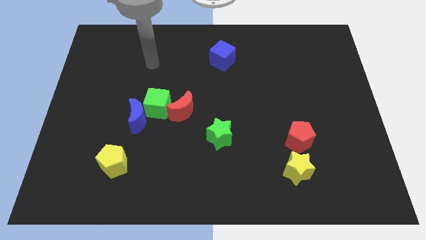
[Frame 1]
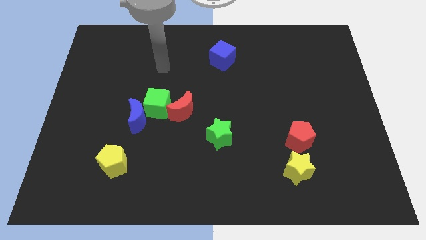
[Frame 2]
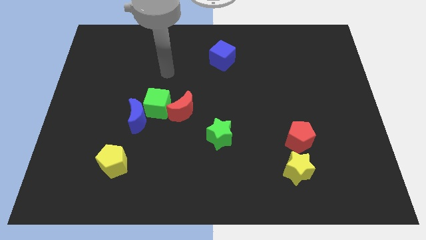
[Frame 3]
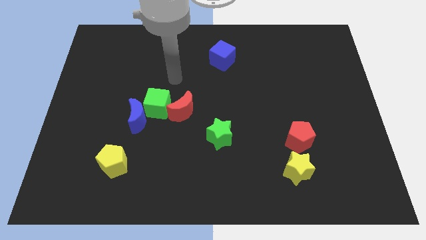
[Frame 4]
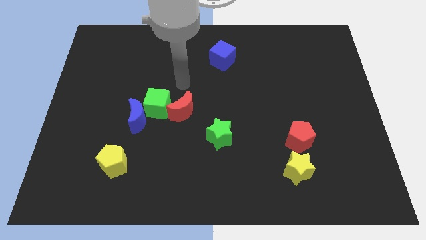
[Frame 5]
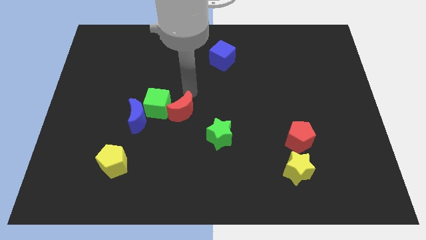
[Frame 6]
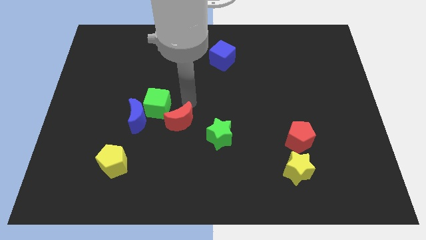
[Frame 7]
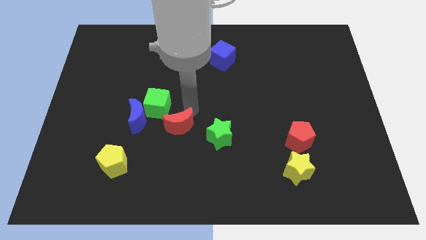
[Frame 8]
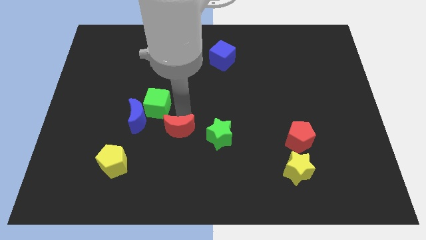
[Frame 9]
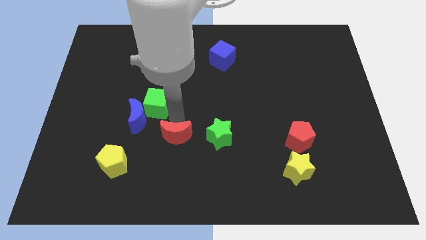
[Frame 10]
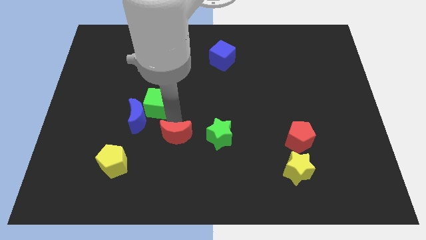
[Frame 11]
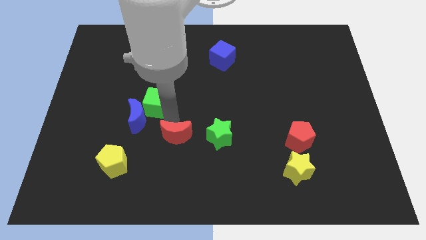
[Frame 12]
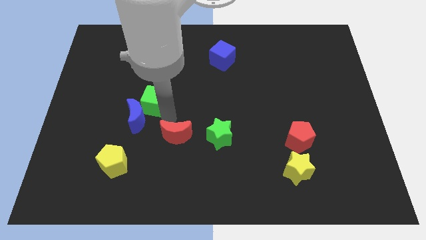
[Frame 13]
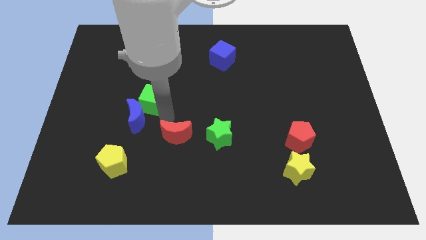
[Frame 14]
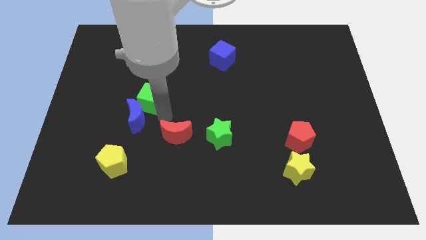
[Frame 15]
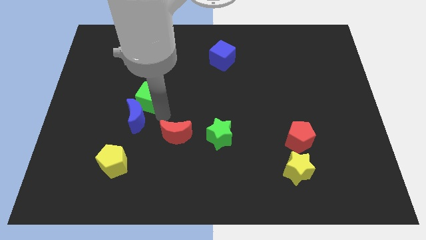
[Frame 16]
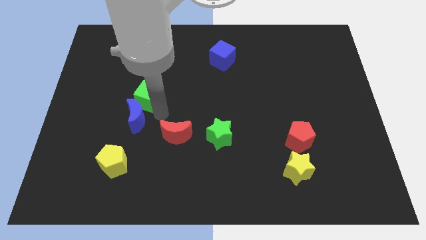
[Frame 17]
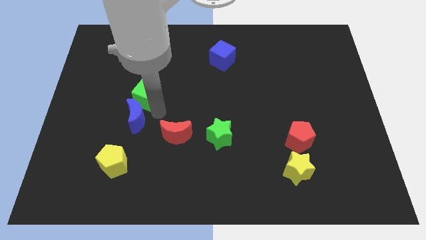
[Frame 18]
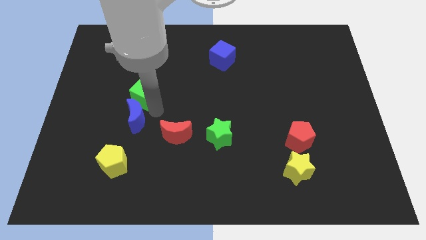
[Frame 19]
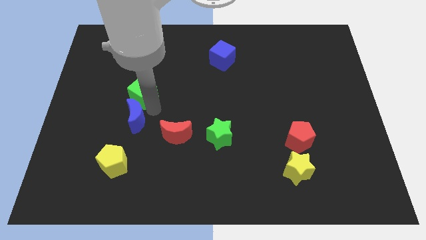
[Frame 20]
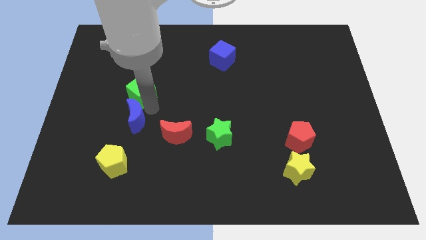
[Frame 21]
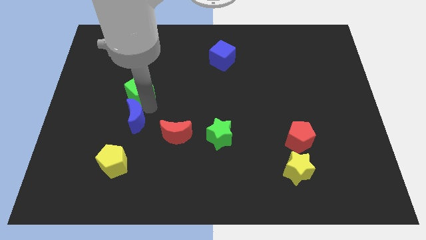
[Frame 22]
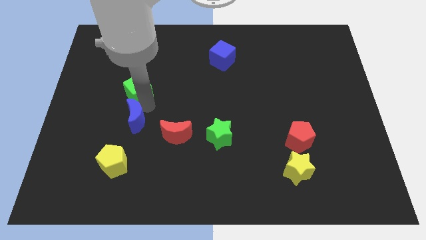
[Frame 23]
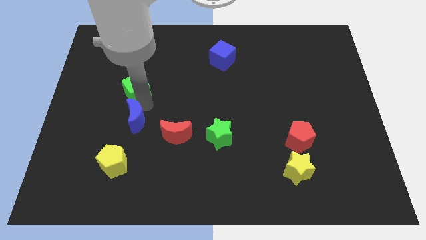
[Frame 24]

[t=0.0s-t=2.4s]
move the green cube slightly upwards and then left

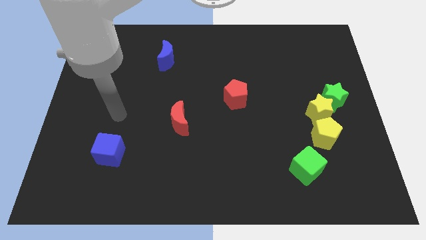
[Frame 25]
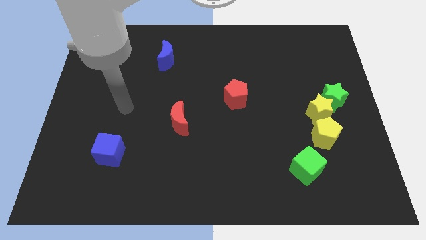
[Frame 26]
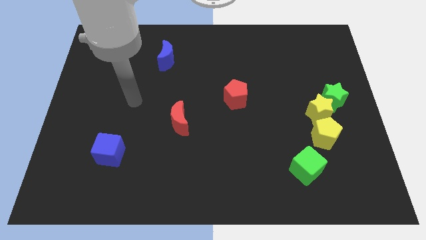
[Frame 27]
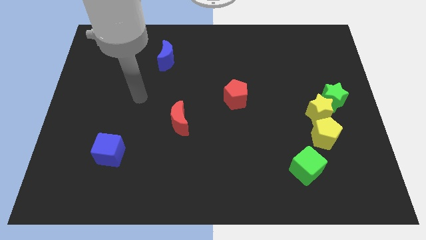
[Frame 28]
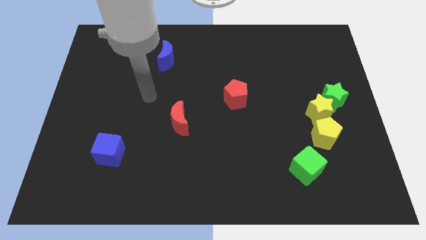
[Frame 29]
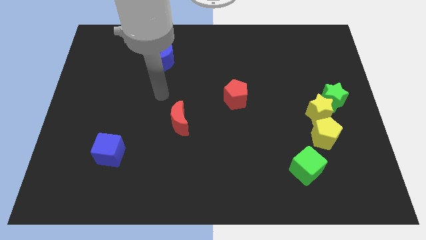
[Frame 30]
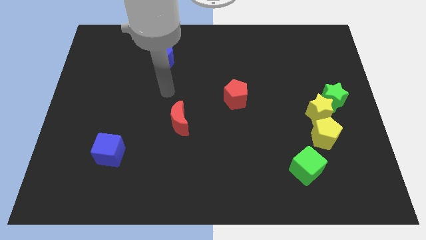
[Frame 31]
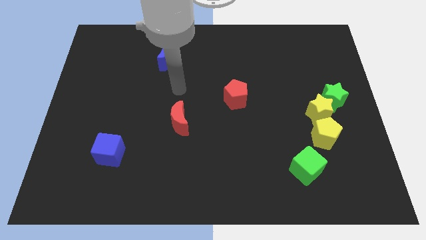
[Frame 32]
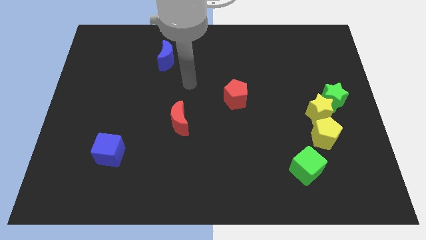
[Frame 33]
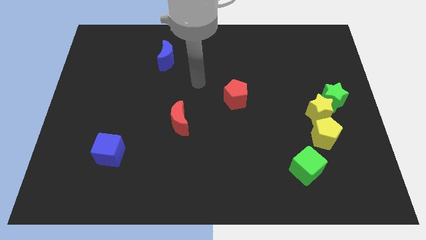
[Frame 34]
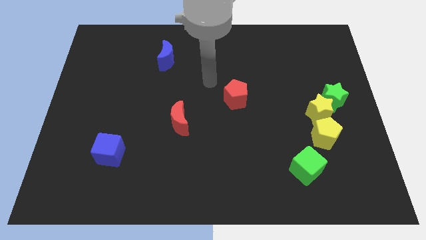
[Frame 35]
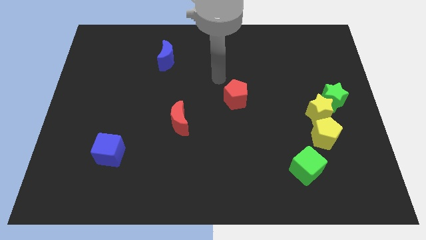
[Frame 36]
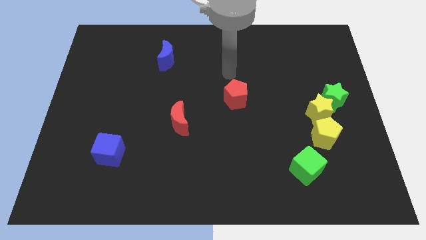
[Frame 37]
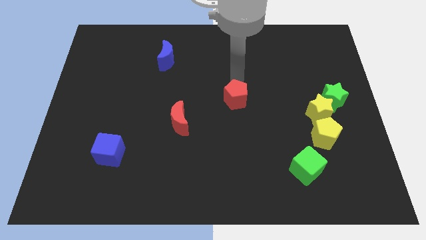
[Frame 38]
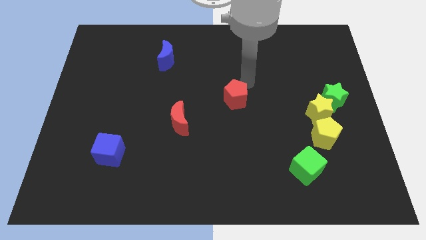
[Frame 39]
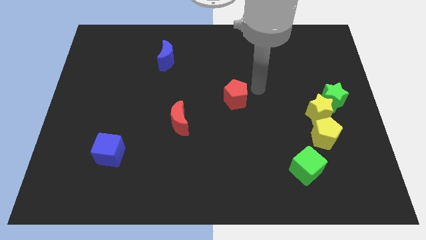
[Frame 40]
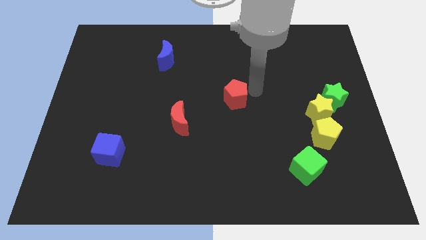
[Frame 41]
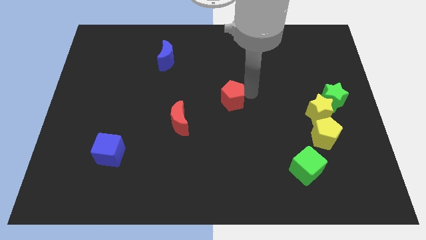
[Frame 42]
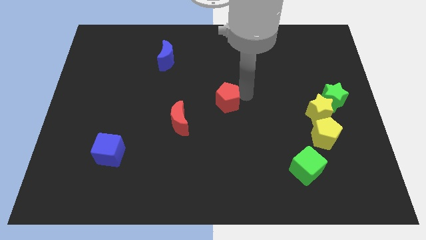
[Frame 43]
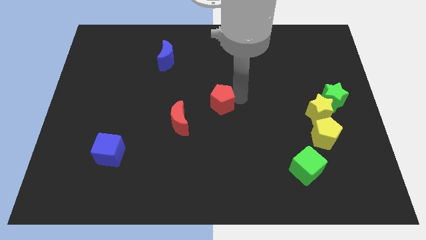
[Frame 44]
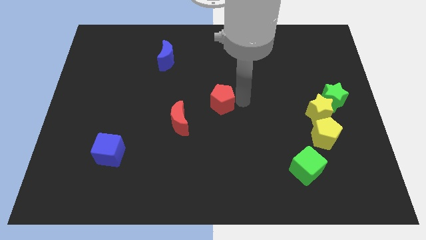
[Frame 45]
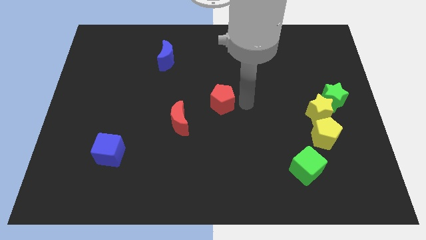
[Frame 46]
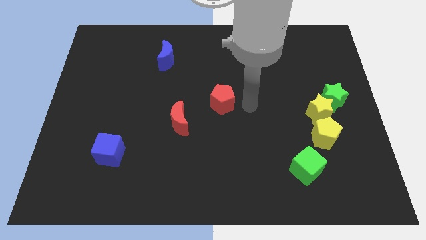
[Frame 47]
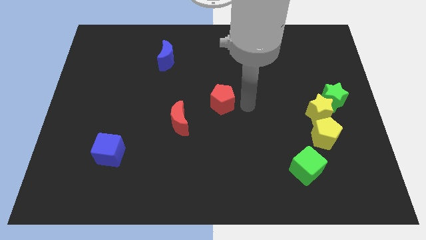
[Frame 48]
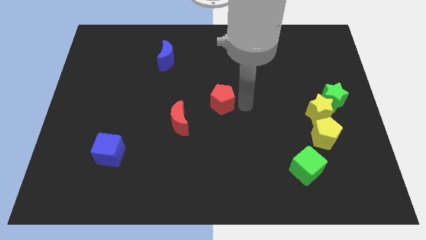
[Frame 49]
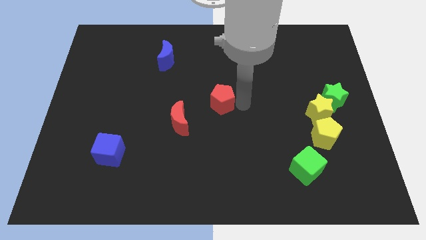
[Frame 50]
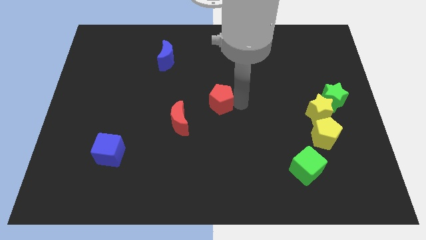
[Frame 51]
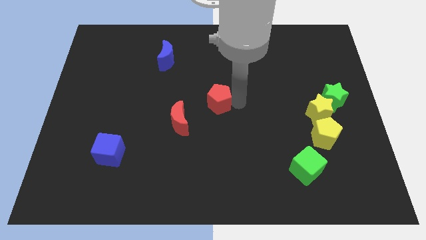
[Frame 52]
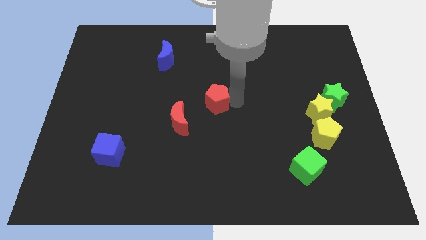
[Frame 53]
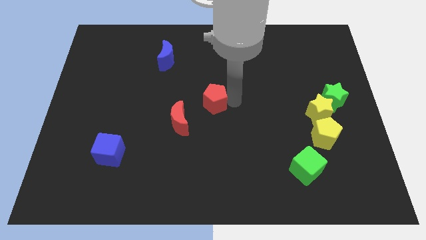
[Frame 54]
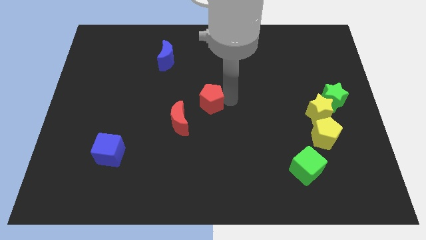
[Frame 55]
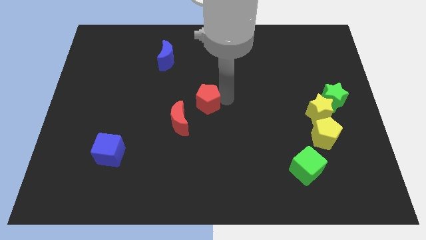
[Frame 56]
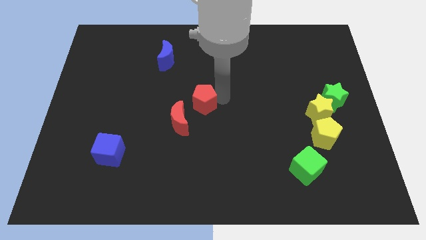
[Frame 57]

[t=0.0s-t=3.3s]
push the red pentagon slightly to the left

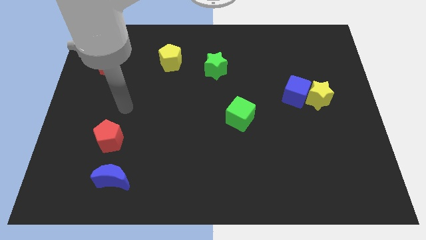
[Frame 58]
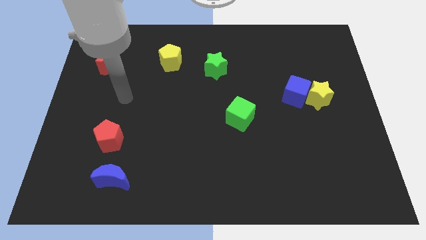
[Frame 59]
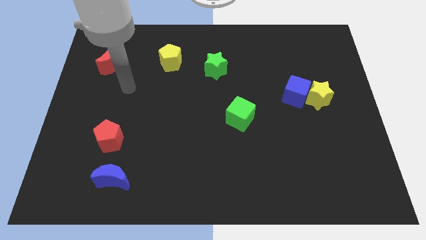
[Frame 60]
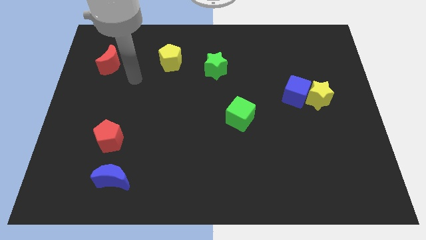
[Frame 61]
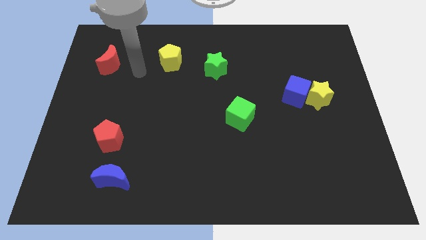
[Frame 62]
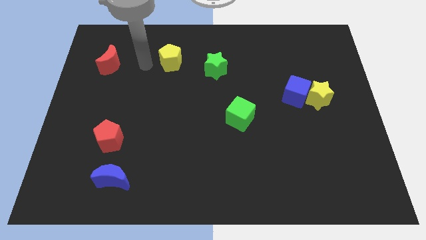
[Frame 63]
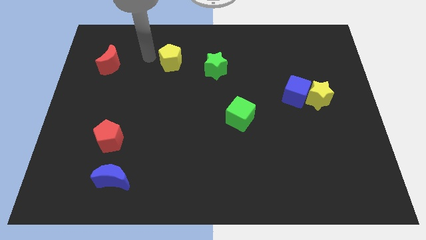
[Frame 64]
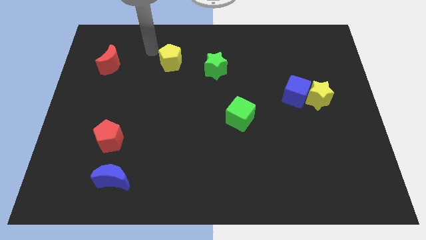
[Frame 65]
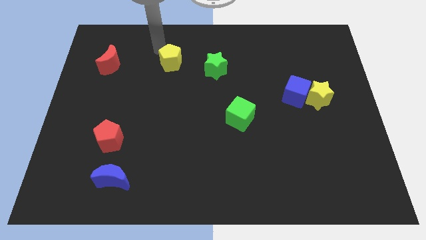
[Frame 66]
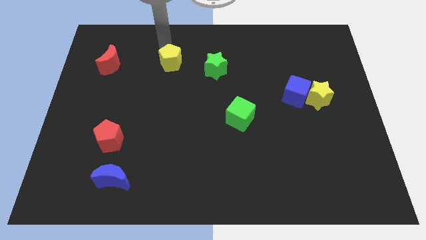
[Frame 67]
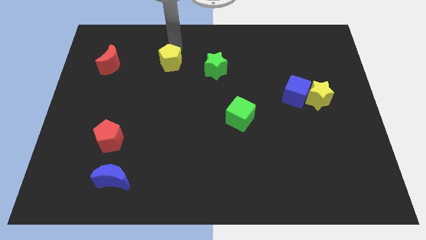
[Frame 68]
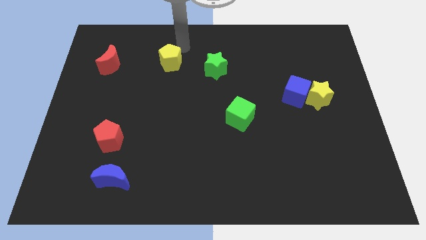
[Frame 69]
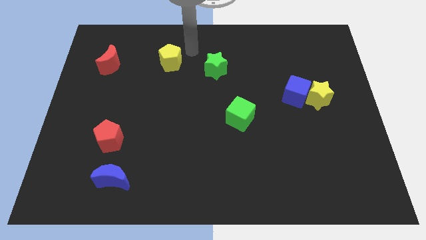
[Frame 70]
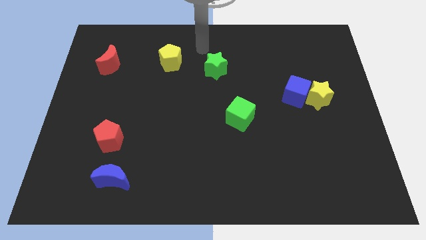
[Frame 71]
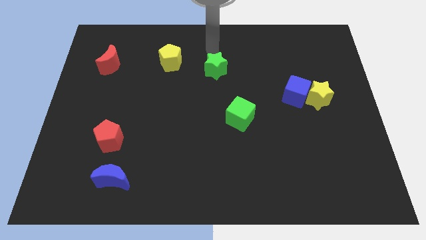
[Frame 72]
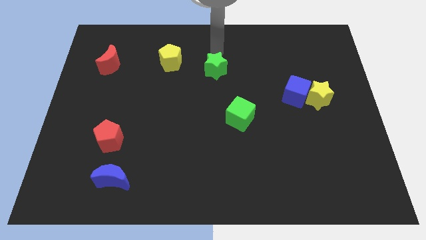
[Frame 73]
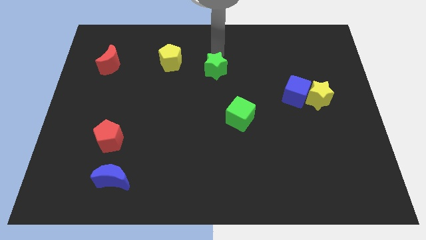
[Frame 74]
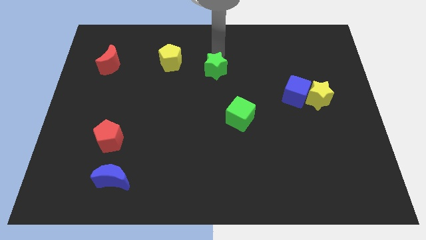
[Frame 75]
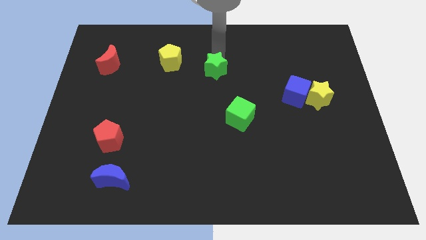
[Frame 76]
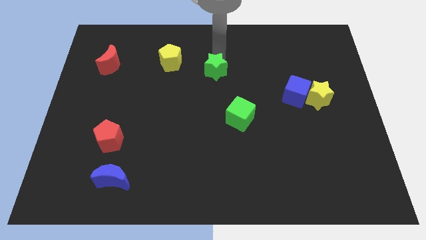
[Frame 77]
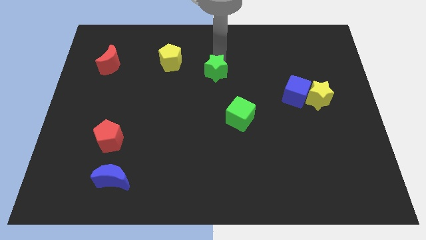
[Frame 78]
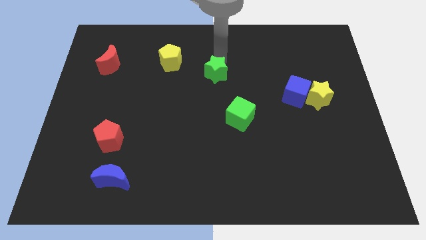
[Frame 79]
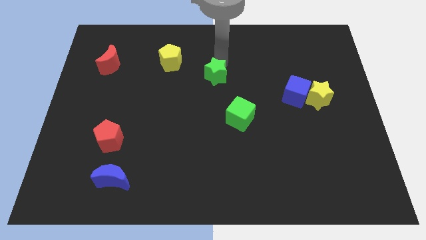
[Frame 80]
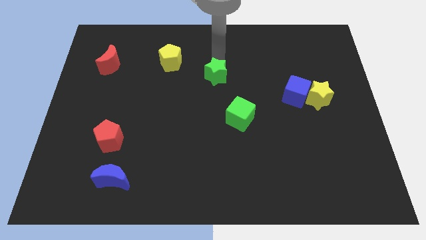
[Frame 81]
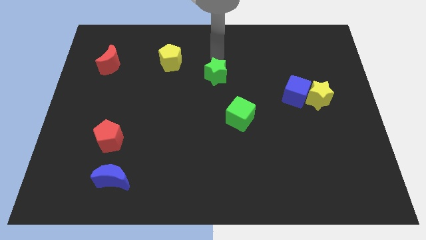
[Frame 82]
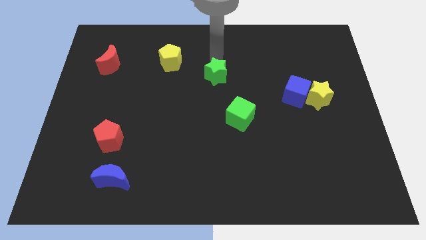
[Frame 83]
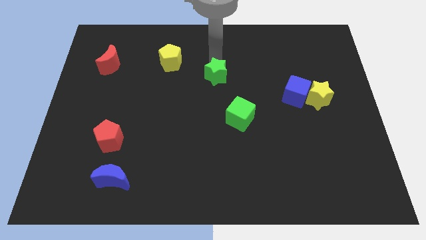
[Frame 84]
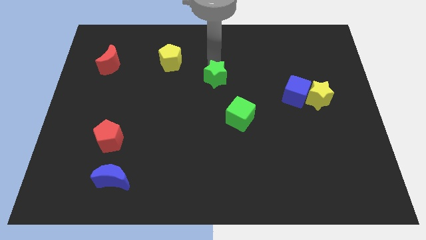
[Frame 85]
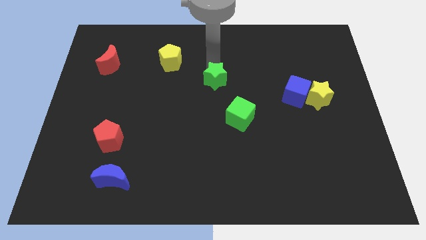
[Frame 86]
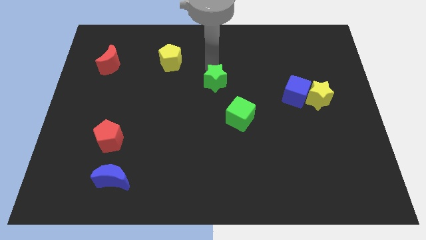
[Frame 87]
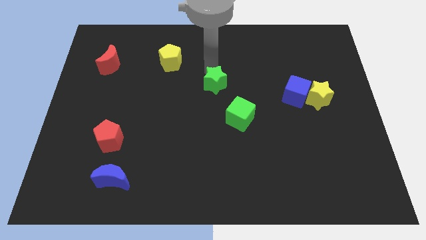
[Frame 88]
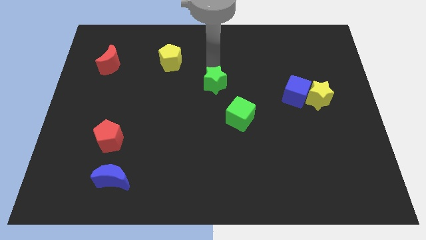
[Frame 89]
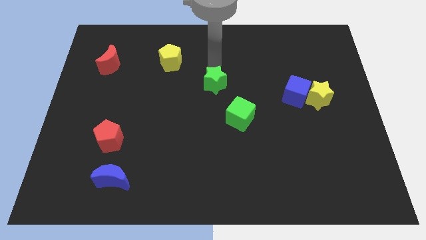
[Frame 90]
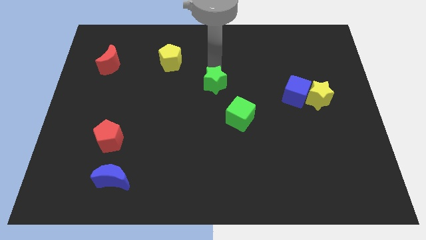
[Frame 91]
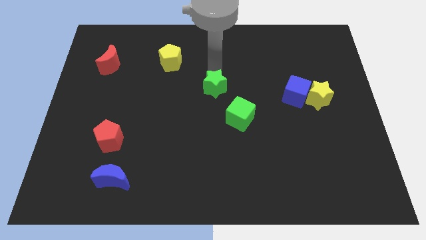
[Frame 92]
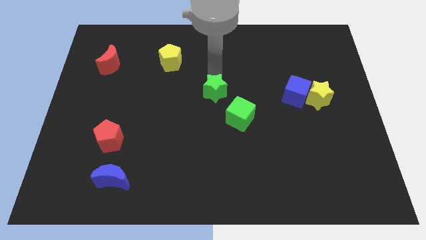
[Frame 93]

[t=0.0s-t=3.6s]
slide the green star downwards a little bit
